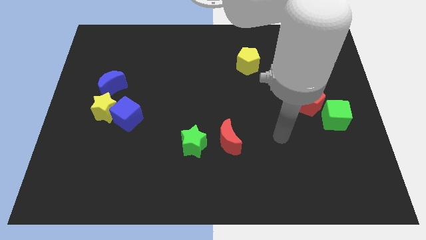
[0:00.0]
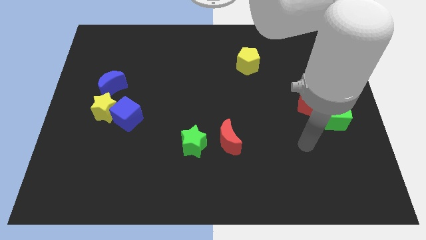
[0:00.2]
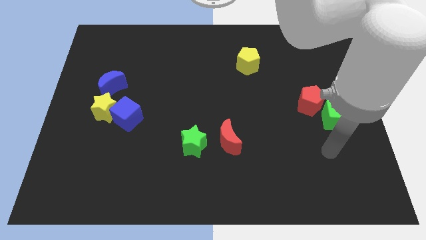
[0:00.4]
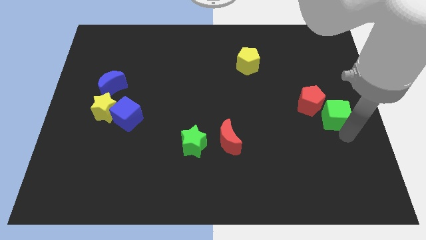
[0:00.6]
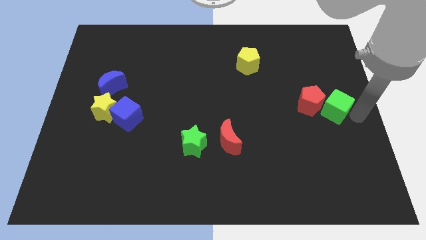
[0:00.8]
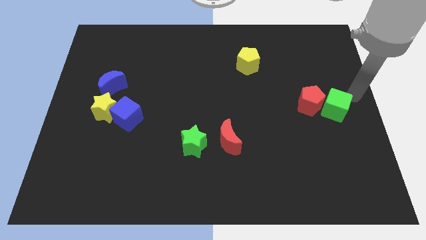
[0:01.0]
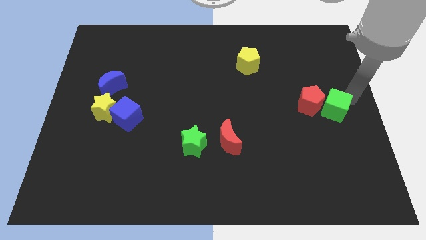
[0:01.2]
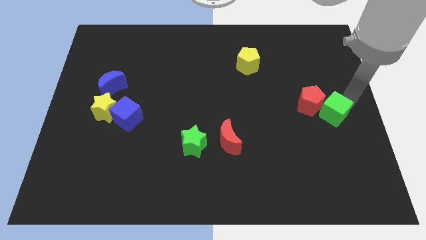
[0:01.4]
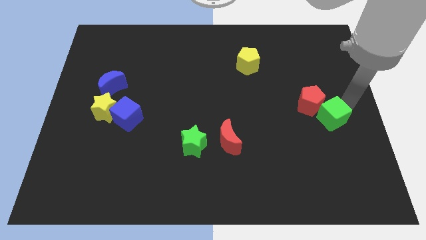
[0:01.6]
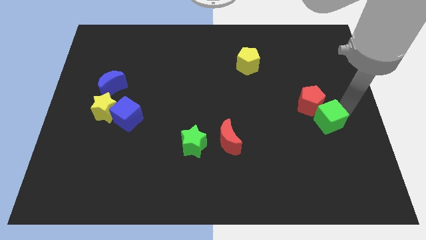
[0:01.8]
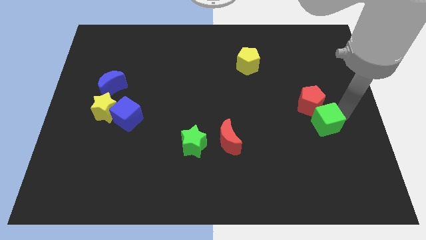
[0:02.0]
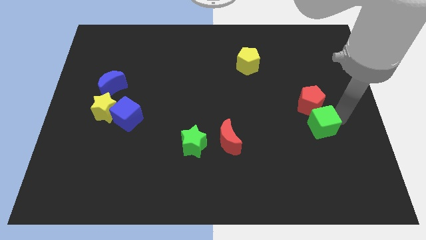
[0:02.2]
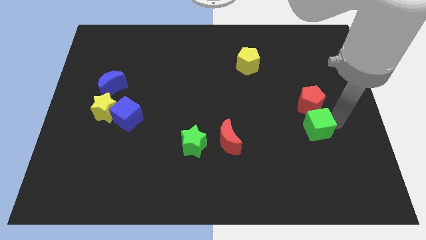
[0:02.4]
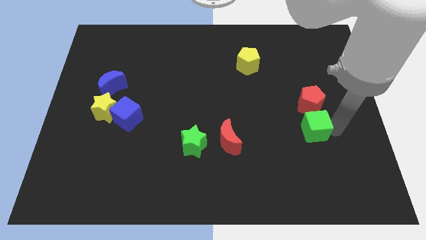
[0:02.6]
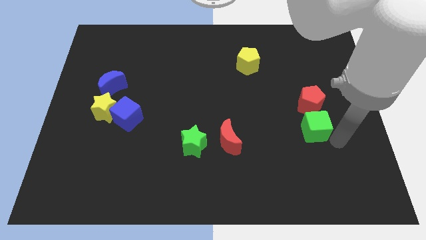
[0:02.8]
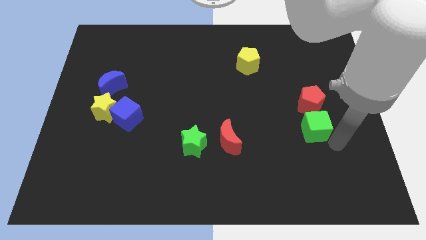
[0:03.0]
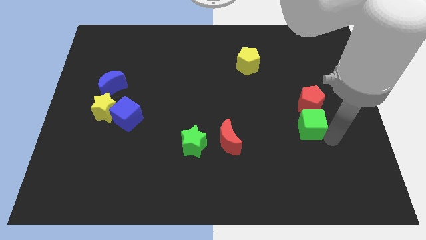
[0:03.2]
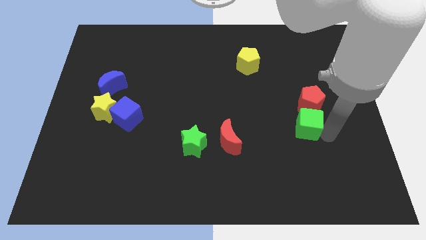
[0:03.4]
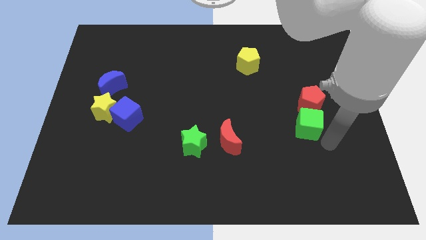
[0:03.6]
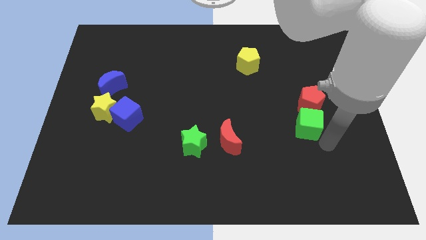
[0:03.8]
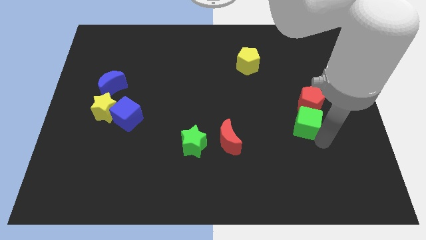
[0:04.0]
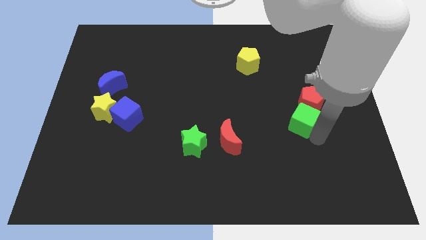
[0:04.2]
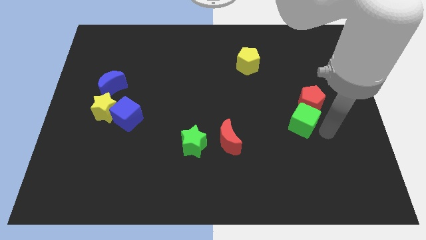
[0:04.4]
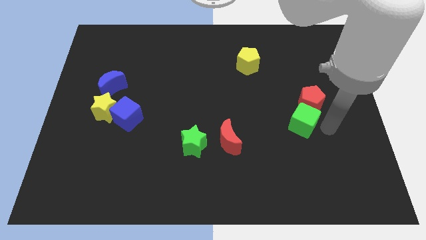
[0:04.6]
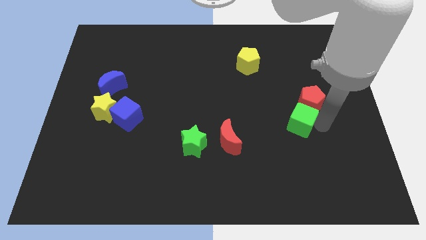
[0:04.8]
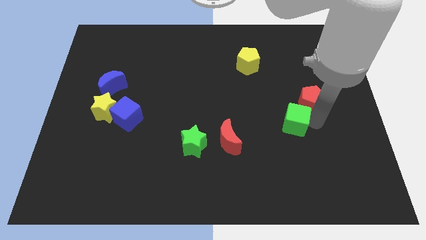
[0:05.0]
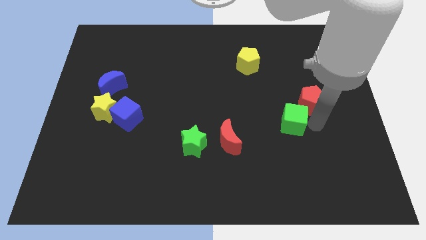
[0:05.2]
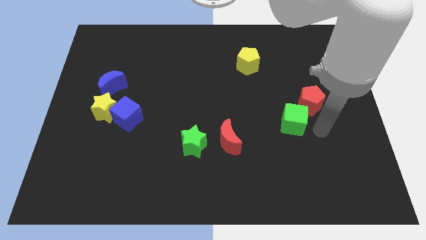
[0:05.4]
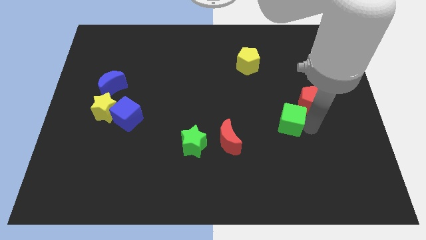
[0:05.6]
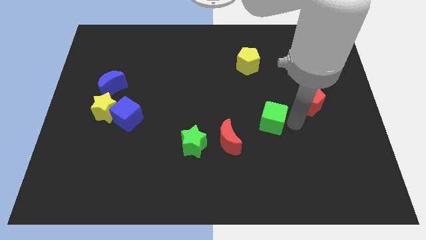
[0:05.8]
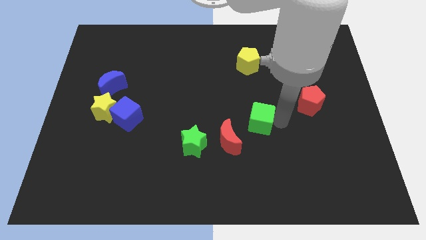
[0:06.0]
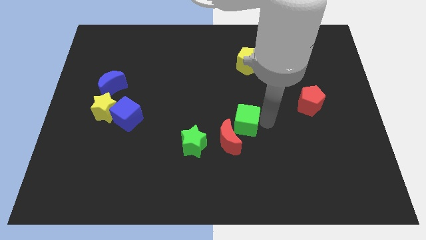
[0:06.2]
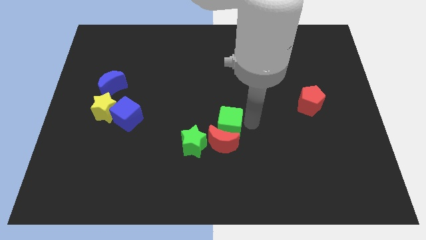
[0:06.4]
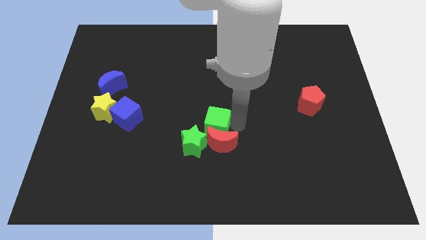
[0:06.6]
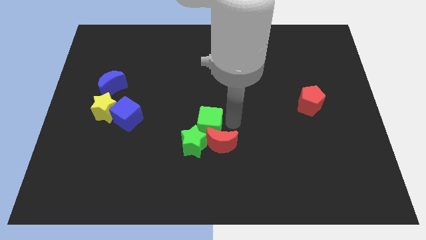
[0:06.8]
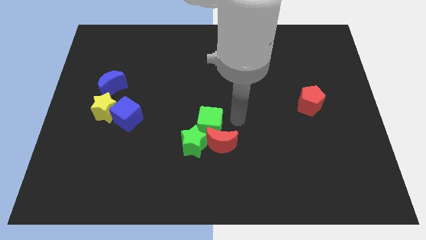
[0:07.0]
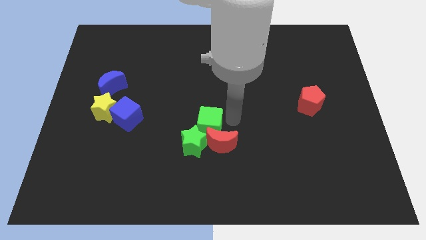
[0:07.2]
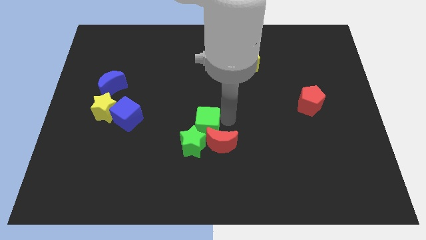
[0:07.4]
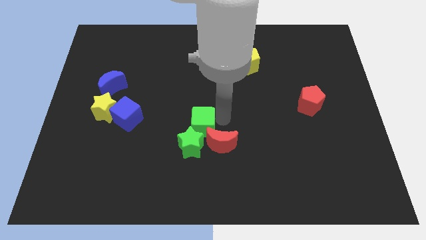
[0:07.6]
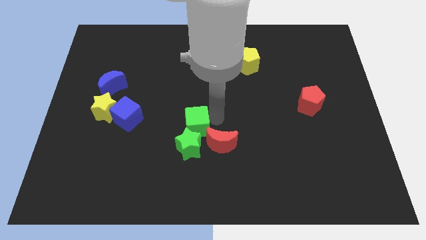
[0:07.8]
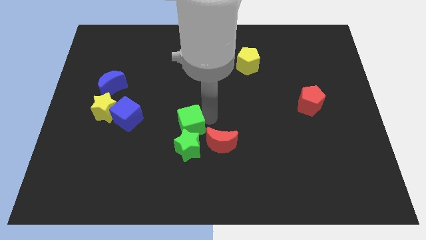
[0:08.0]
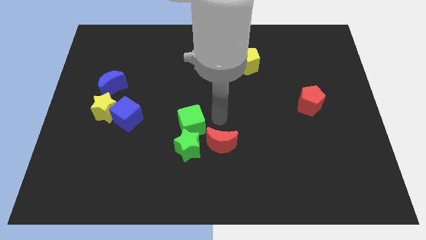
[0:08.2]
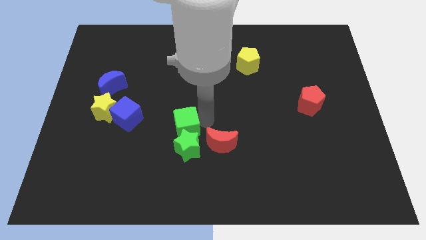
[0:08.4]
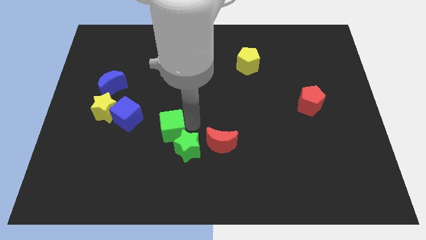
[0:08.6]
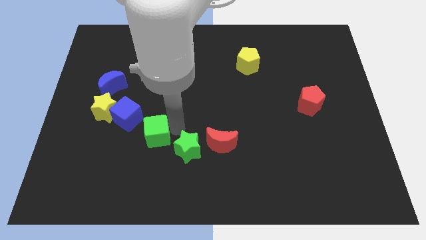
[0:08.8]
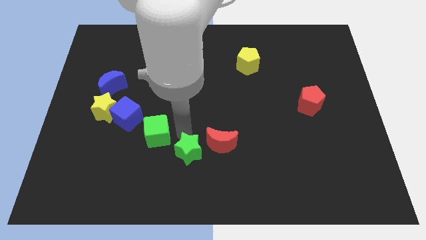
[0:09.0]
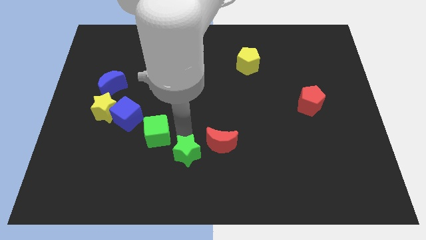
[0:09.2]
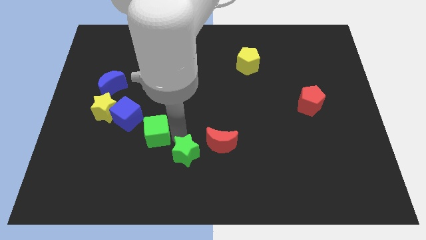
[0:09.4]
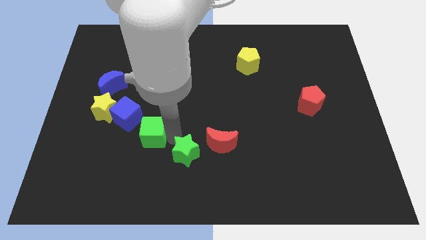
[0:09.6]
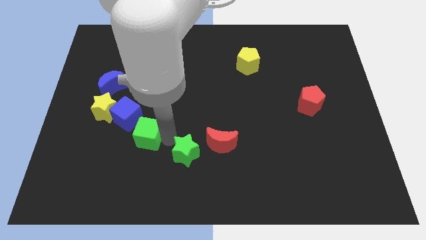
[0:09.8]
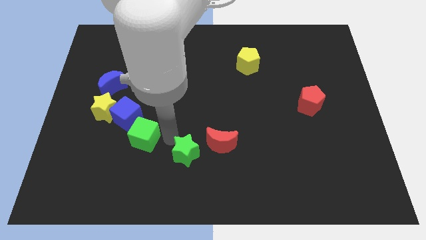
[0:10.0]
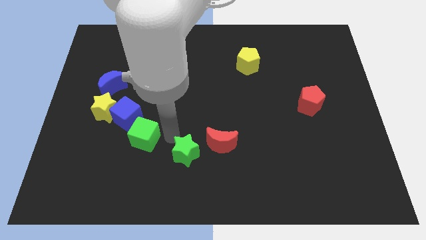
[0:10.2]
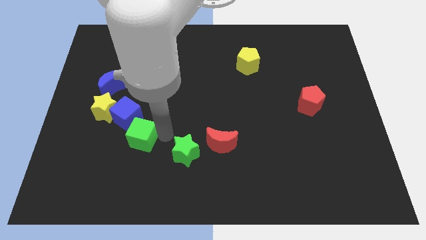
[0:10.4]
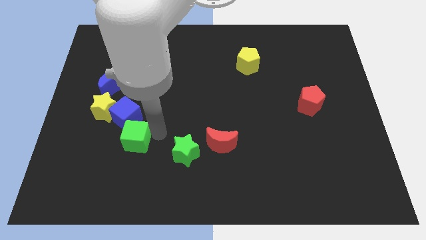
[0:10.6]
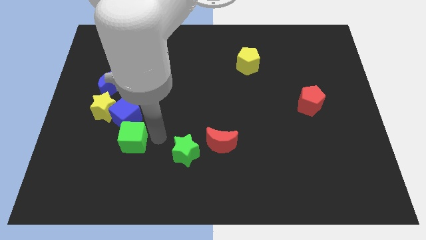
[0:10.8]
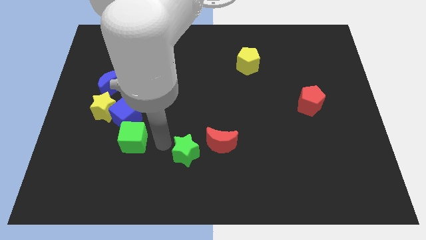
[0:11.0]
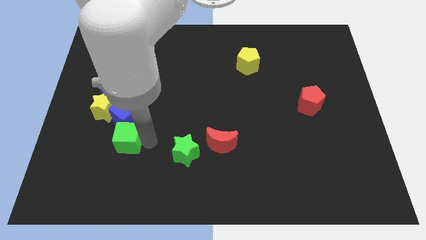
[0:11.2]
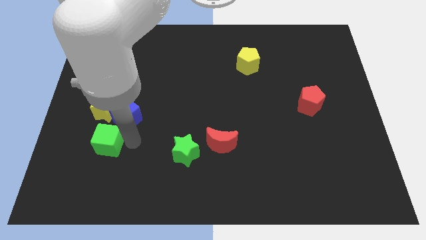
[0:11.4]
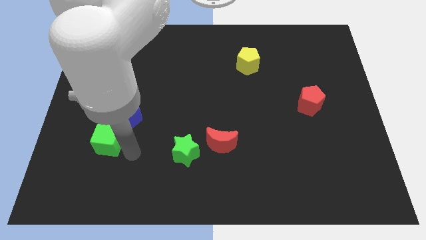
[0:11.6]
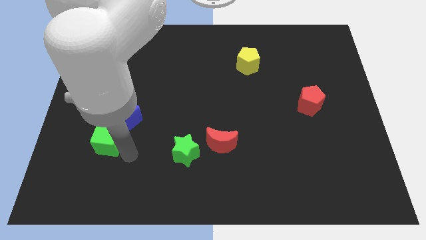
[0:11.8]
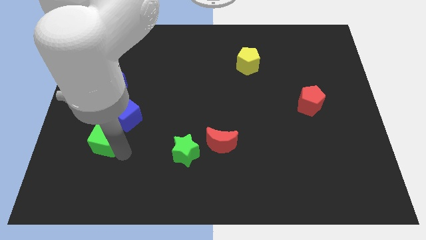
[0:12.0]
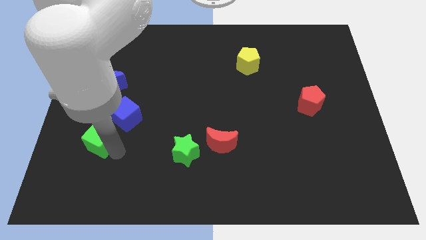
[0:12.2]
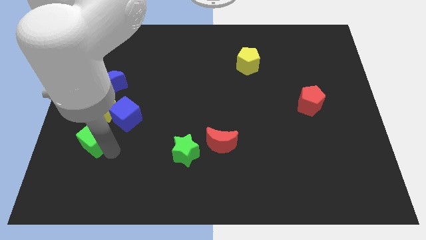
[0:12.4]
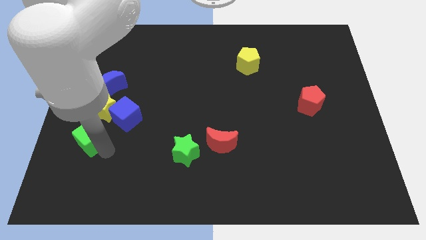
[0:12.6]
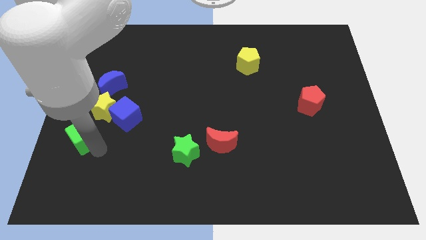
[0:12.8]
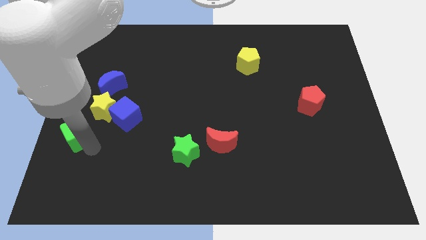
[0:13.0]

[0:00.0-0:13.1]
push the green cube to the left side of the board
